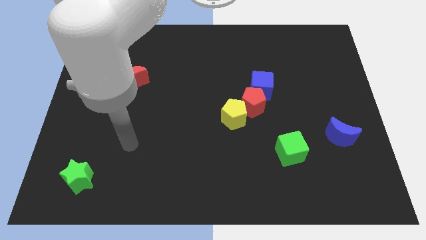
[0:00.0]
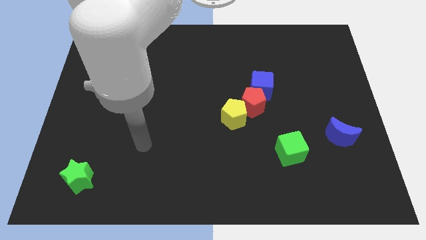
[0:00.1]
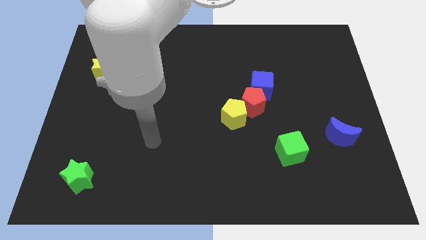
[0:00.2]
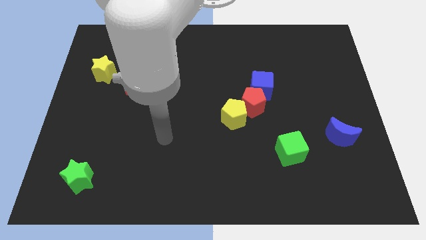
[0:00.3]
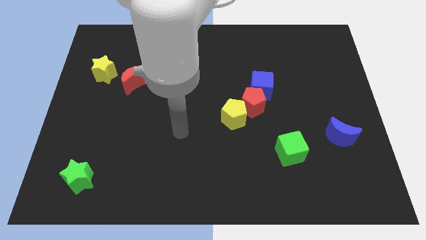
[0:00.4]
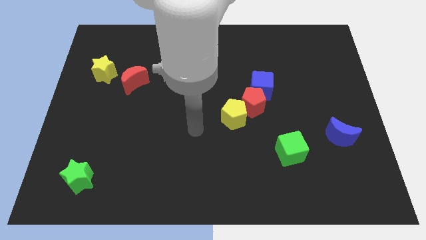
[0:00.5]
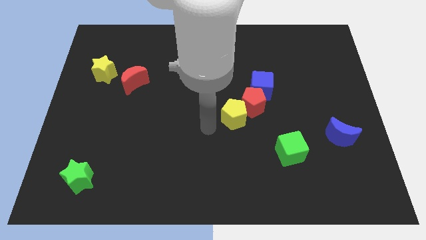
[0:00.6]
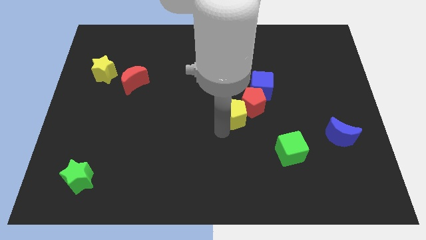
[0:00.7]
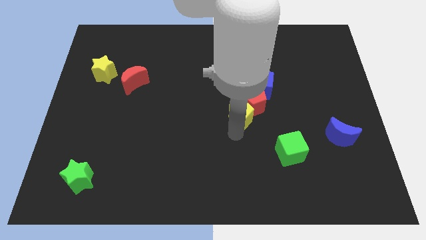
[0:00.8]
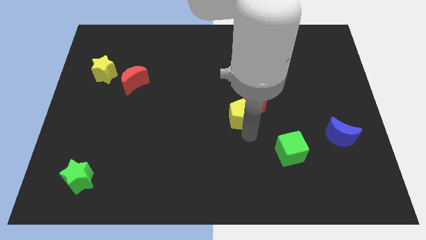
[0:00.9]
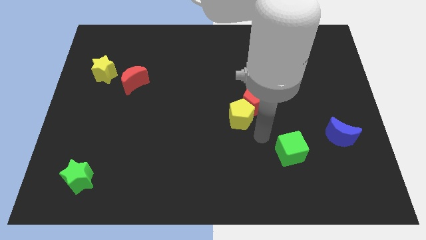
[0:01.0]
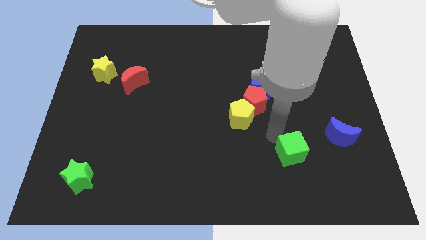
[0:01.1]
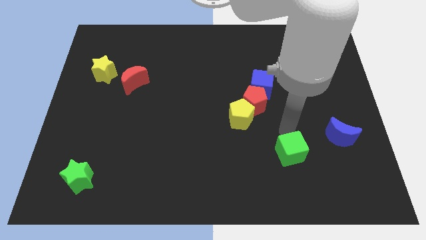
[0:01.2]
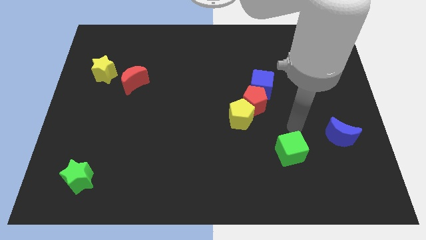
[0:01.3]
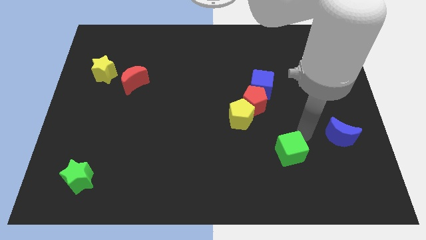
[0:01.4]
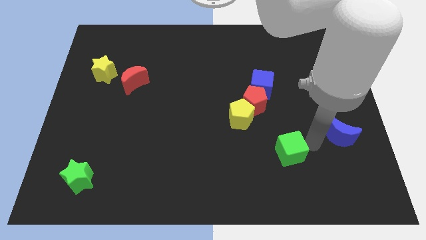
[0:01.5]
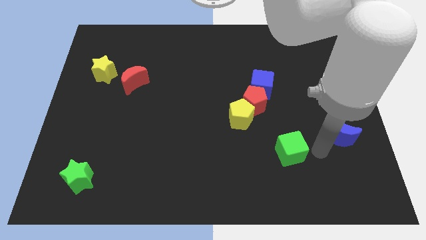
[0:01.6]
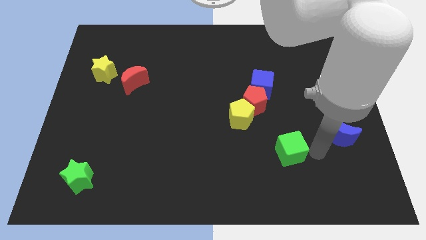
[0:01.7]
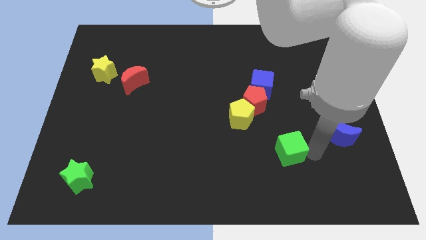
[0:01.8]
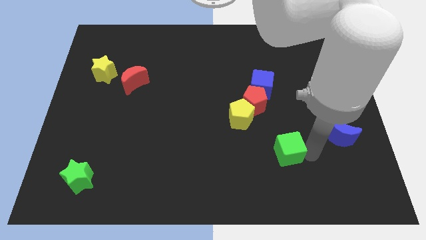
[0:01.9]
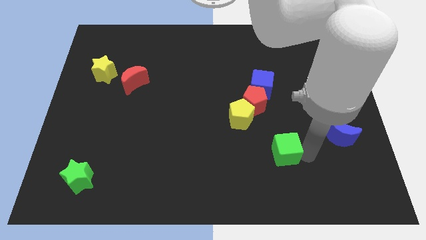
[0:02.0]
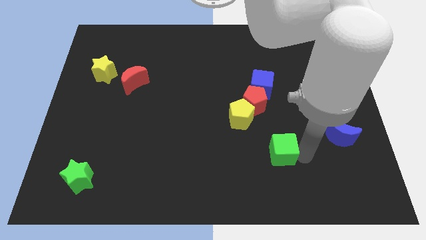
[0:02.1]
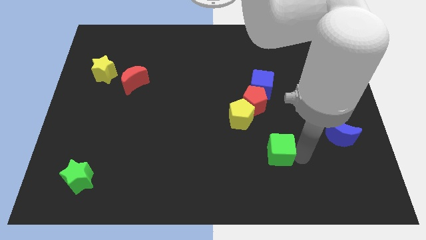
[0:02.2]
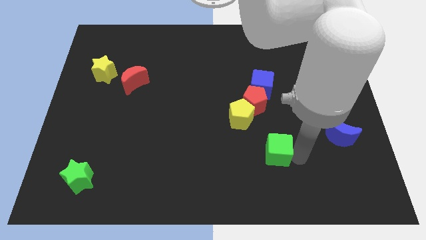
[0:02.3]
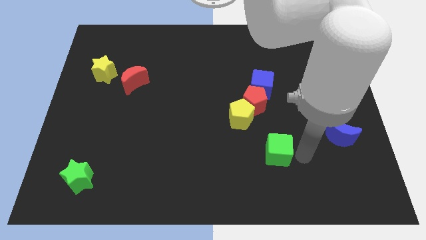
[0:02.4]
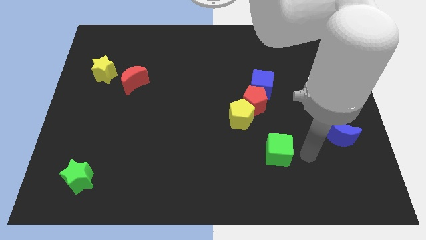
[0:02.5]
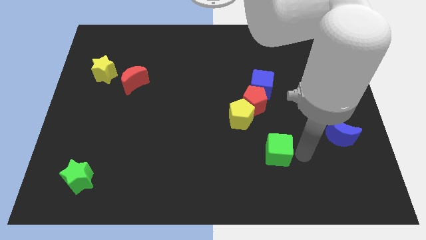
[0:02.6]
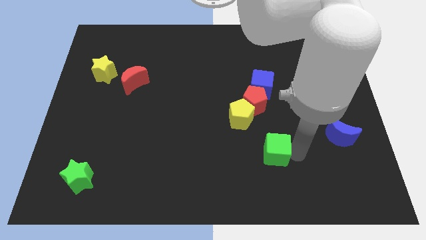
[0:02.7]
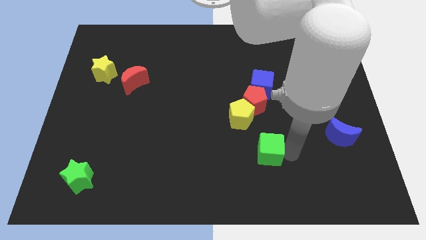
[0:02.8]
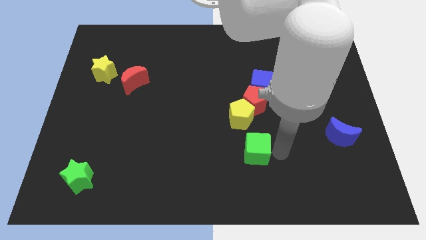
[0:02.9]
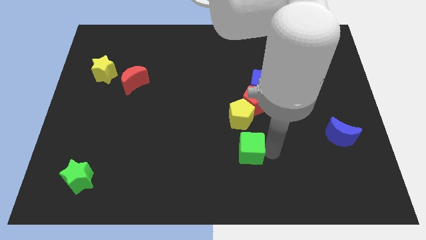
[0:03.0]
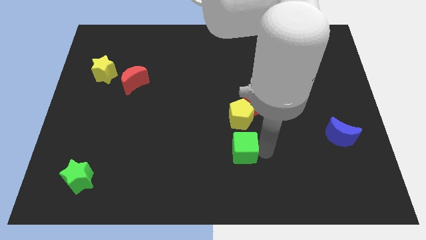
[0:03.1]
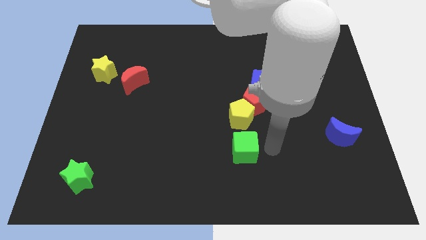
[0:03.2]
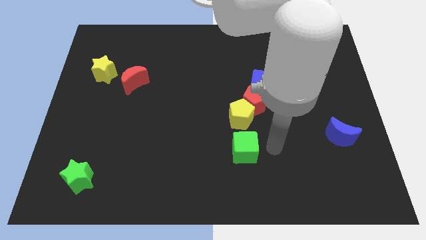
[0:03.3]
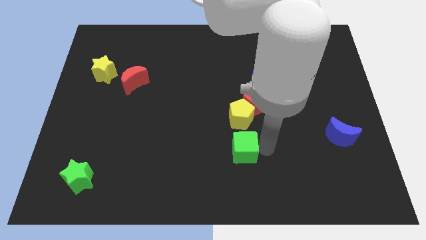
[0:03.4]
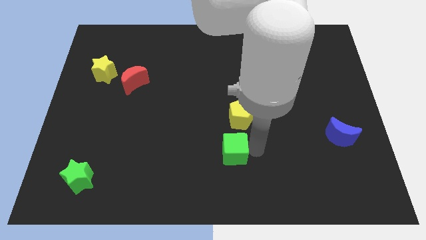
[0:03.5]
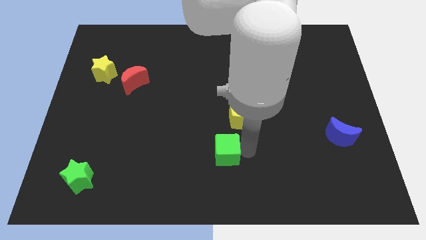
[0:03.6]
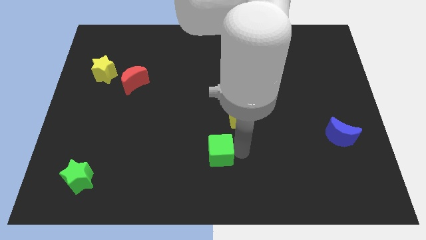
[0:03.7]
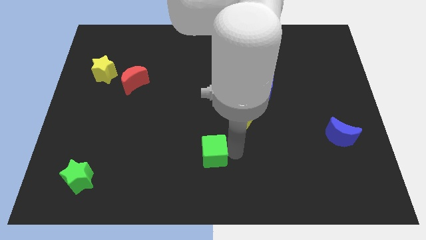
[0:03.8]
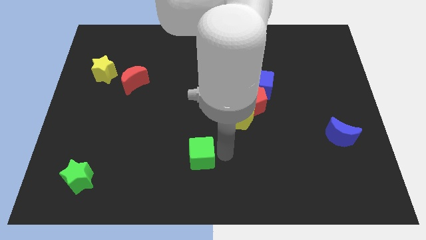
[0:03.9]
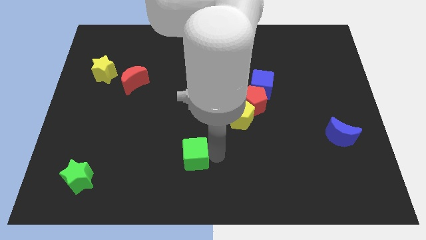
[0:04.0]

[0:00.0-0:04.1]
push the green cube to the left

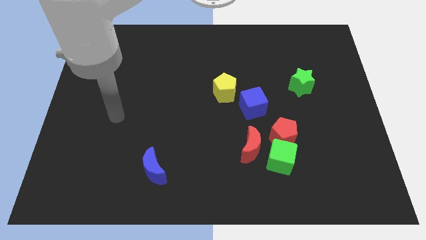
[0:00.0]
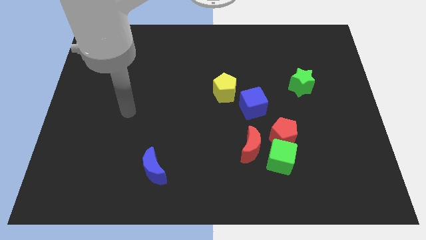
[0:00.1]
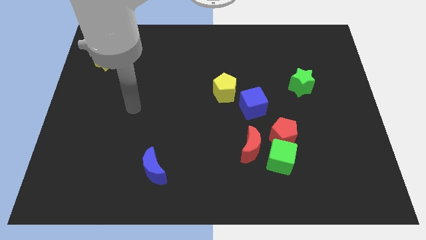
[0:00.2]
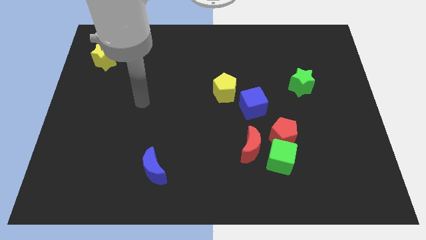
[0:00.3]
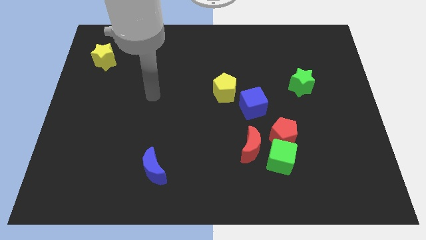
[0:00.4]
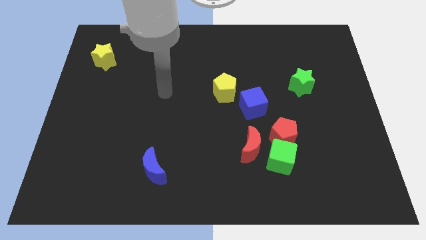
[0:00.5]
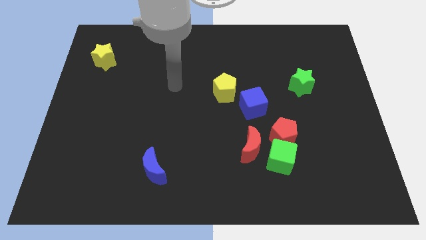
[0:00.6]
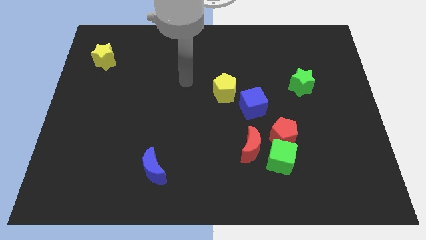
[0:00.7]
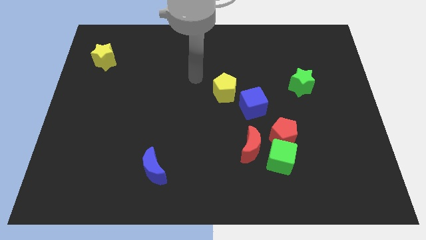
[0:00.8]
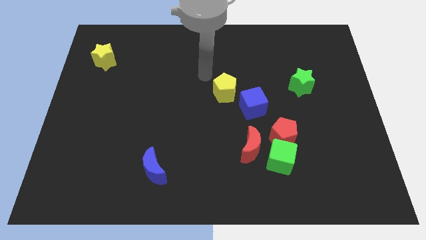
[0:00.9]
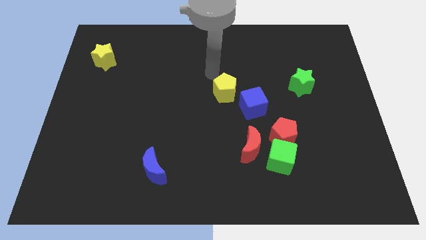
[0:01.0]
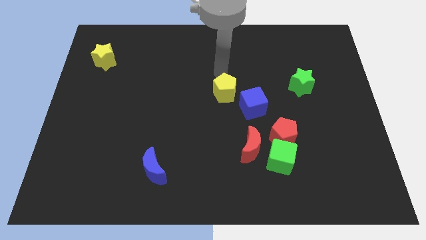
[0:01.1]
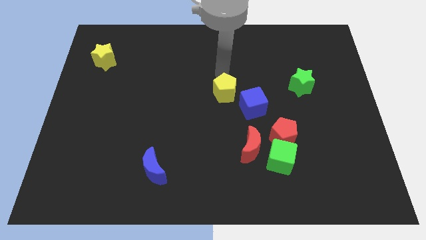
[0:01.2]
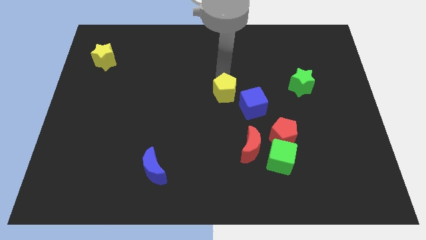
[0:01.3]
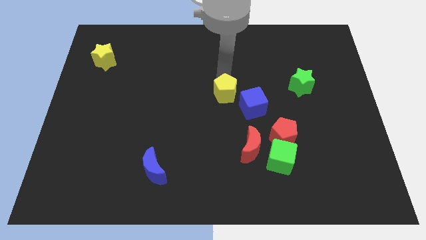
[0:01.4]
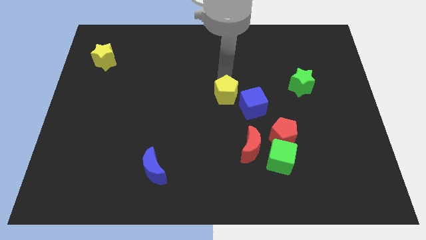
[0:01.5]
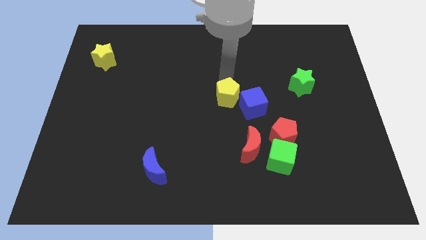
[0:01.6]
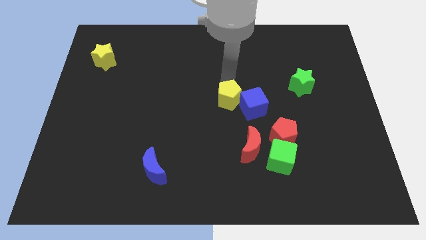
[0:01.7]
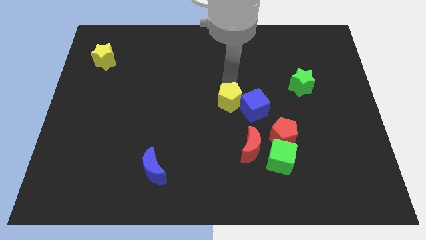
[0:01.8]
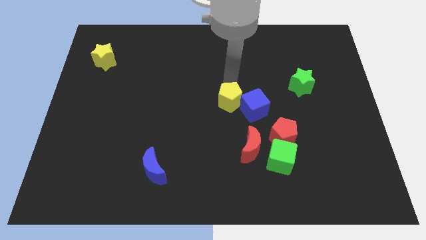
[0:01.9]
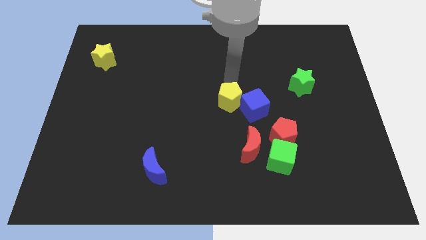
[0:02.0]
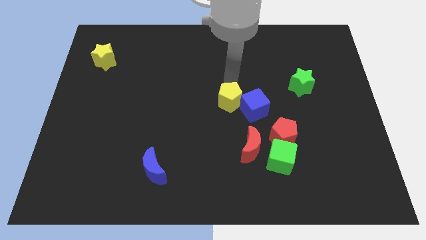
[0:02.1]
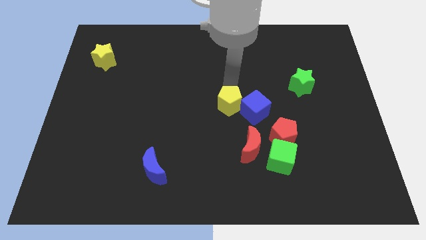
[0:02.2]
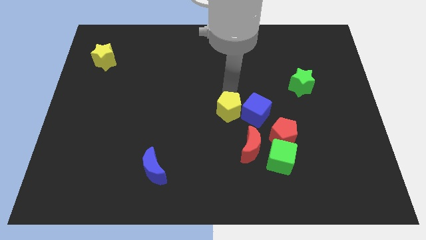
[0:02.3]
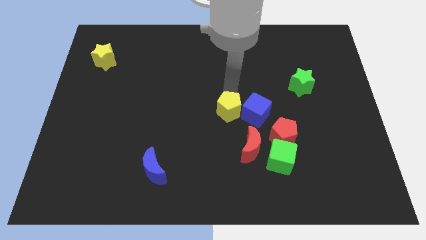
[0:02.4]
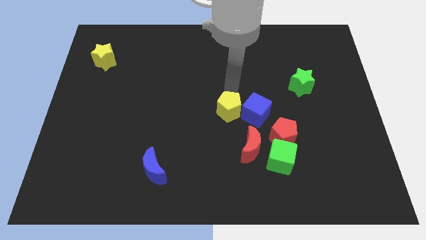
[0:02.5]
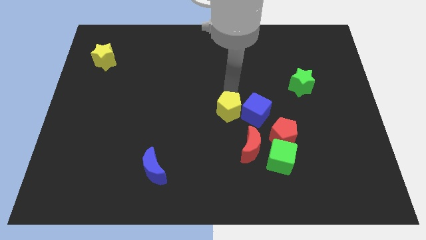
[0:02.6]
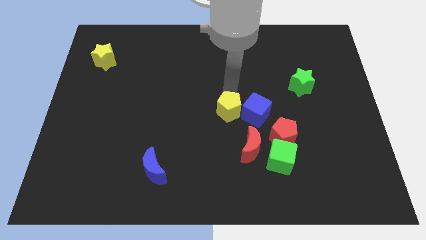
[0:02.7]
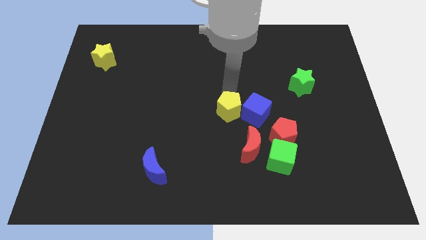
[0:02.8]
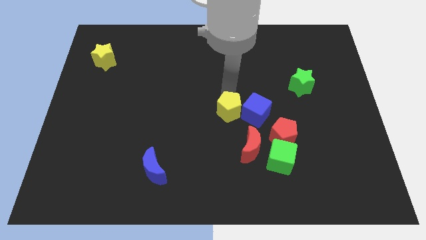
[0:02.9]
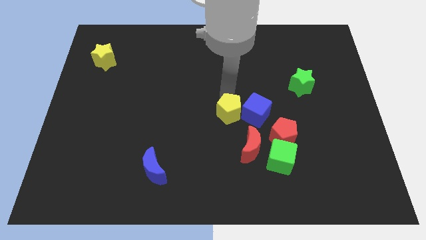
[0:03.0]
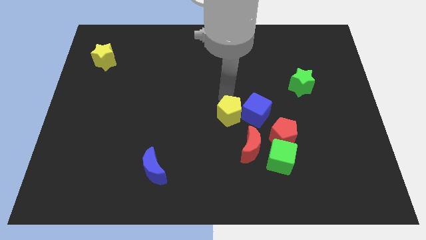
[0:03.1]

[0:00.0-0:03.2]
move the yellow pentagon a bit down

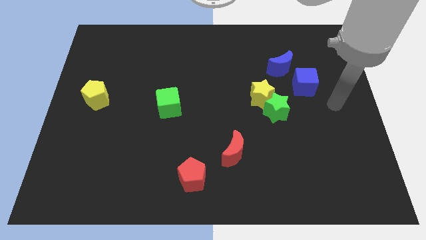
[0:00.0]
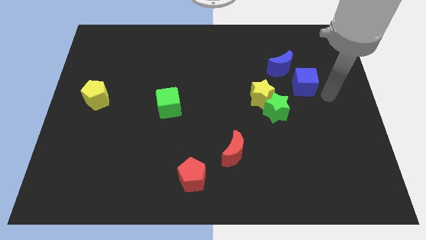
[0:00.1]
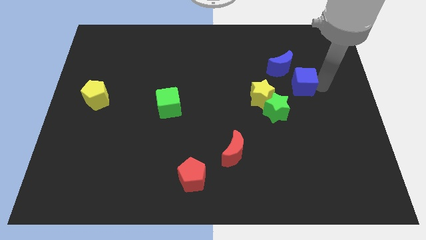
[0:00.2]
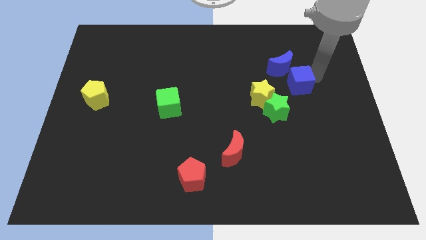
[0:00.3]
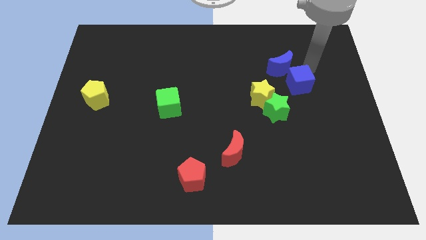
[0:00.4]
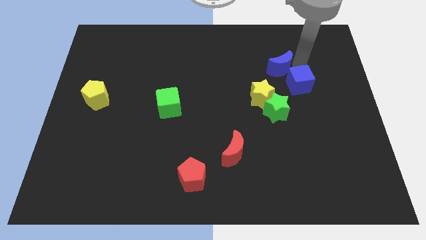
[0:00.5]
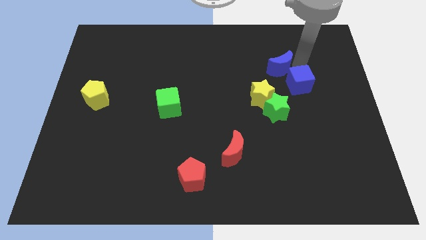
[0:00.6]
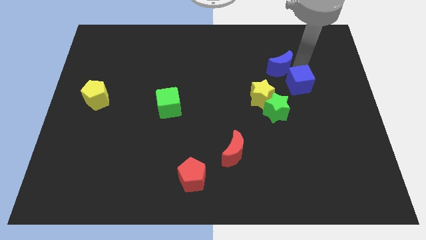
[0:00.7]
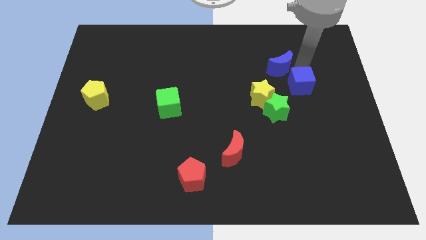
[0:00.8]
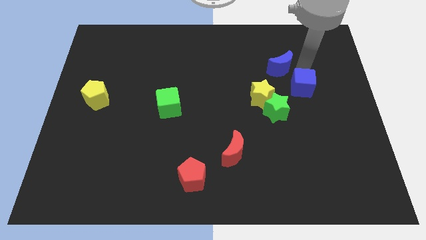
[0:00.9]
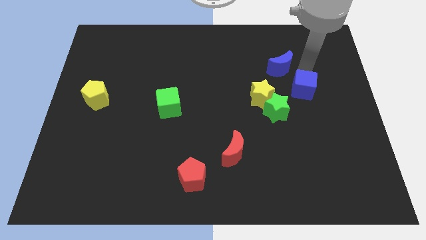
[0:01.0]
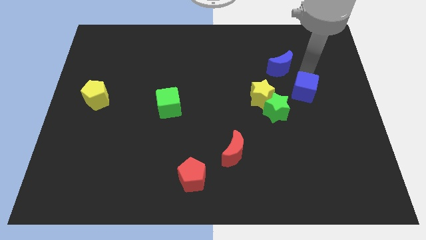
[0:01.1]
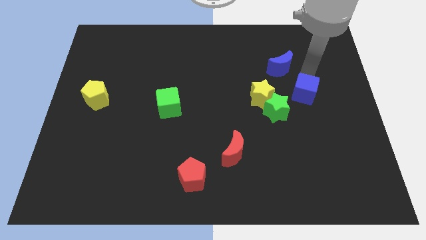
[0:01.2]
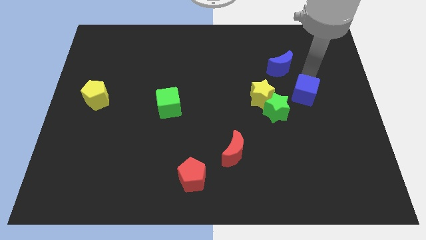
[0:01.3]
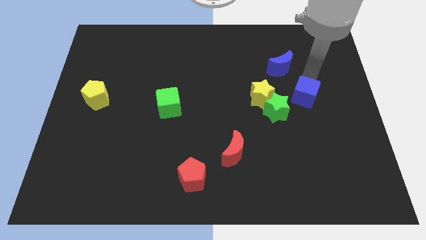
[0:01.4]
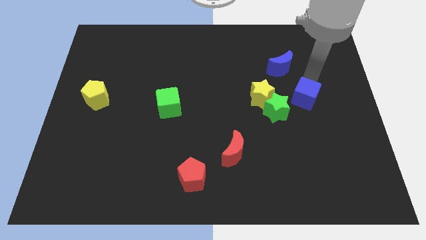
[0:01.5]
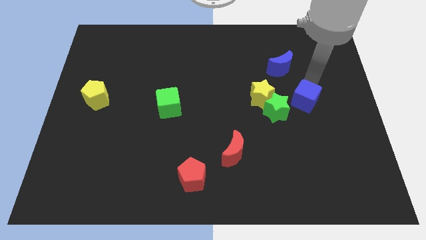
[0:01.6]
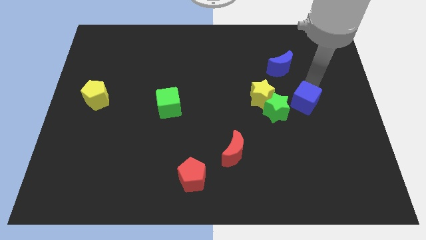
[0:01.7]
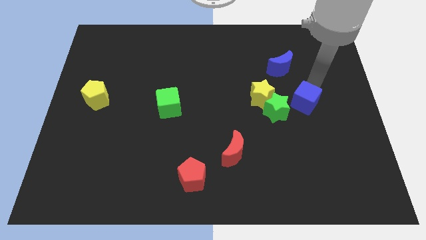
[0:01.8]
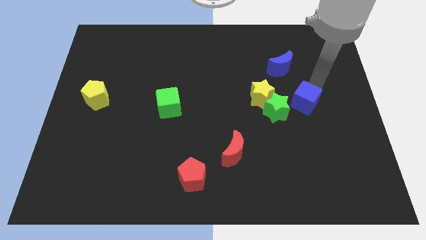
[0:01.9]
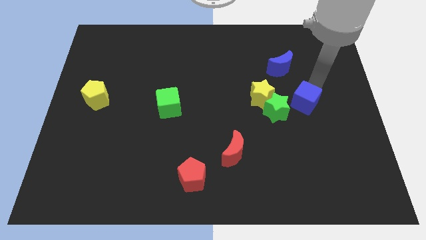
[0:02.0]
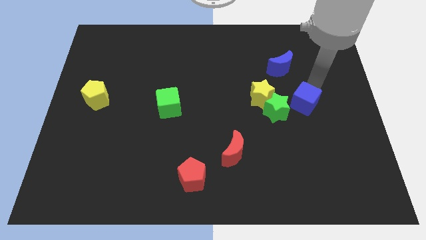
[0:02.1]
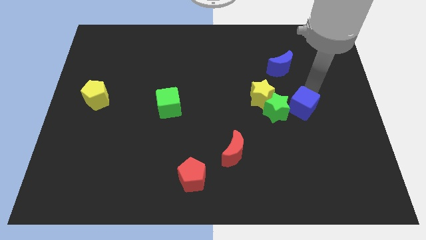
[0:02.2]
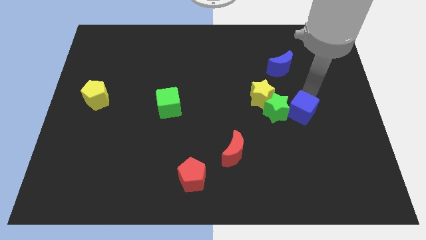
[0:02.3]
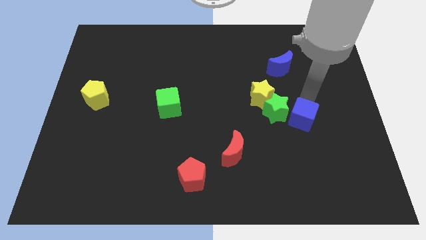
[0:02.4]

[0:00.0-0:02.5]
slightly push the blue cube downwards and to the left
